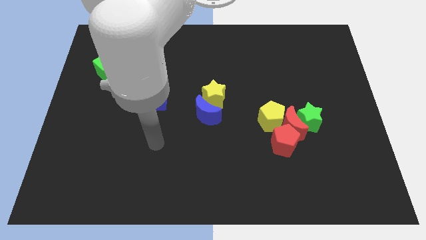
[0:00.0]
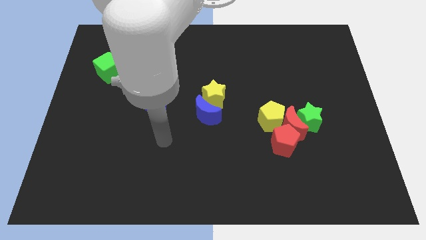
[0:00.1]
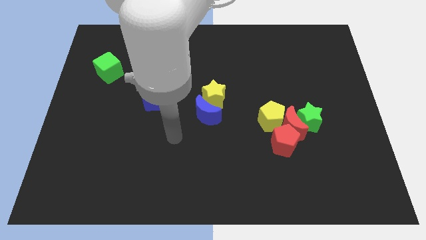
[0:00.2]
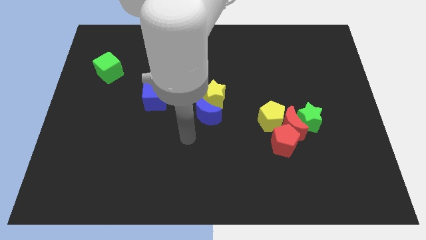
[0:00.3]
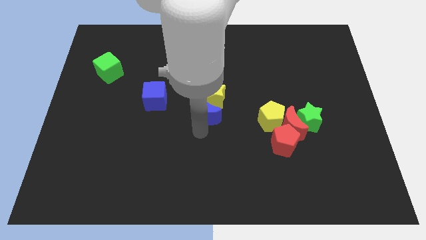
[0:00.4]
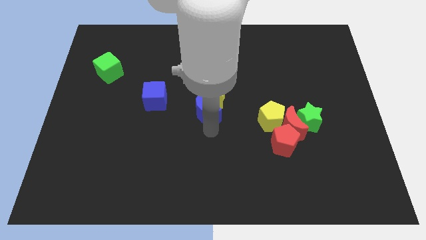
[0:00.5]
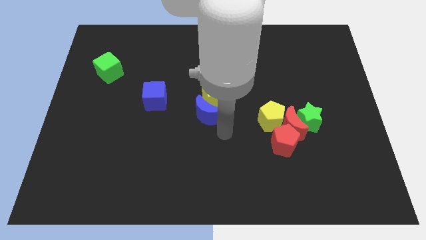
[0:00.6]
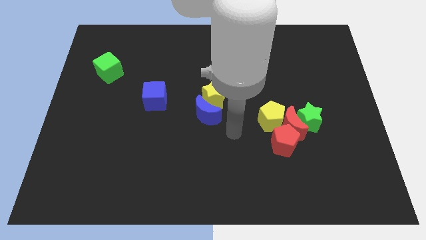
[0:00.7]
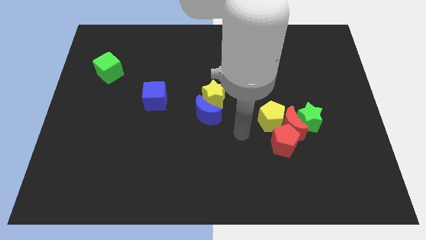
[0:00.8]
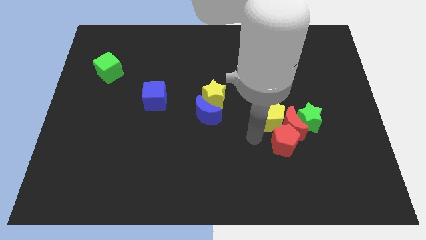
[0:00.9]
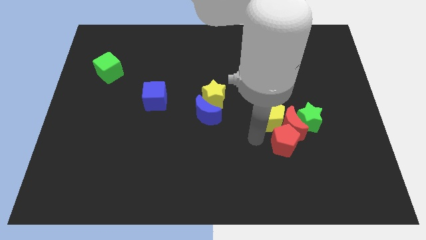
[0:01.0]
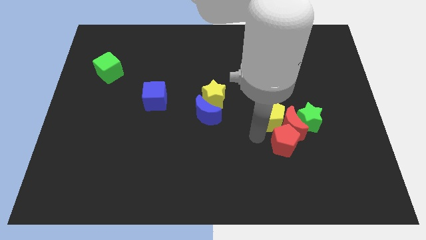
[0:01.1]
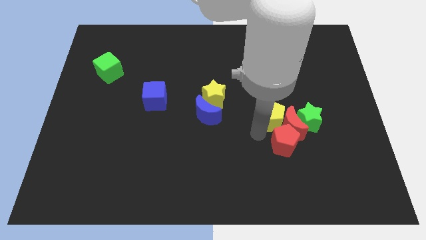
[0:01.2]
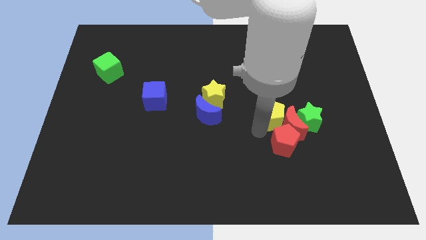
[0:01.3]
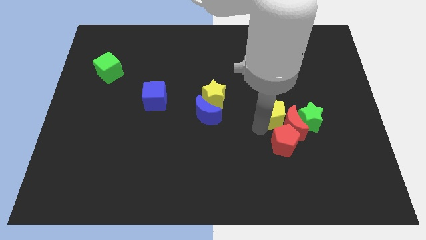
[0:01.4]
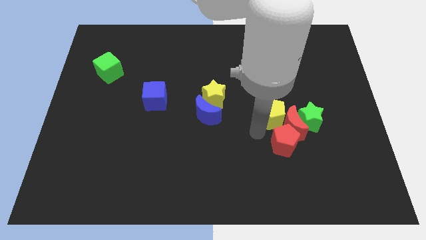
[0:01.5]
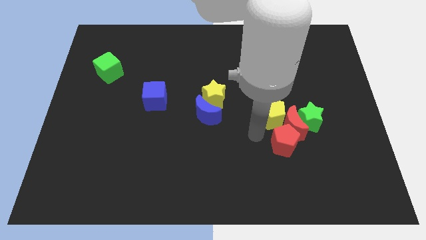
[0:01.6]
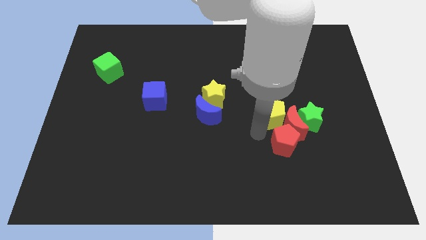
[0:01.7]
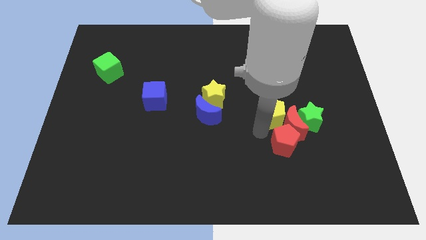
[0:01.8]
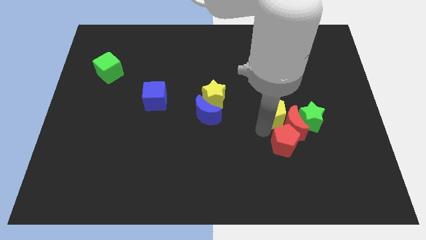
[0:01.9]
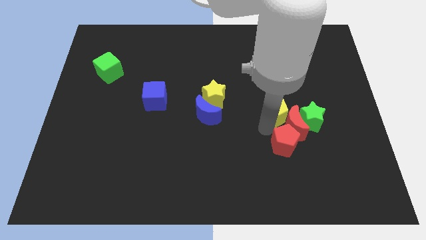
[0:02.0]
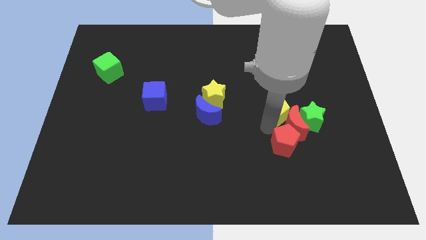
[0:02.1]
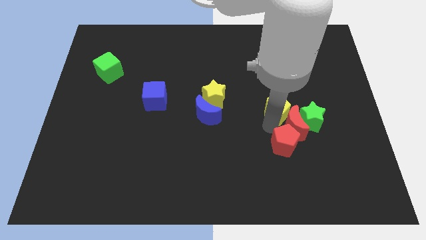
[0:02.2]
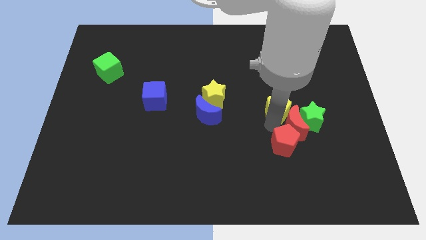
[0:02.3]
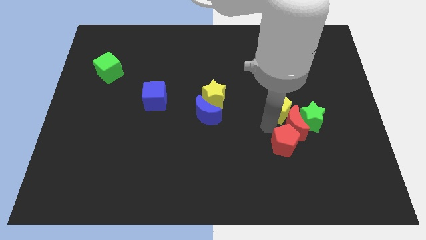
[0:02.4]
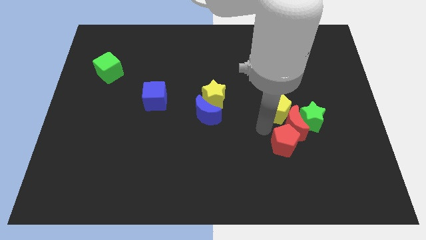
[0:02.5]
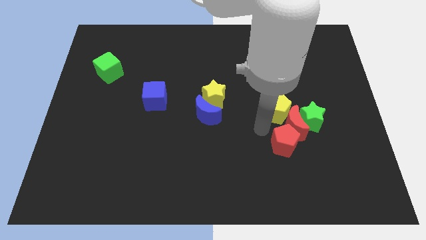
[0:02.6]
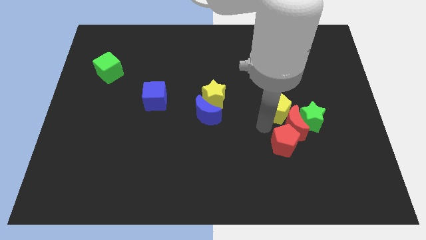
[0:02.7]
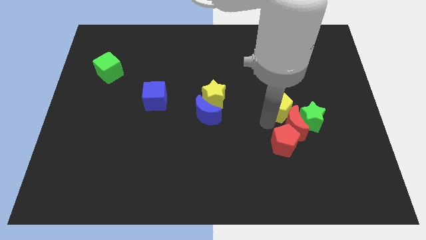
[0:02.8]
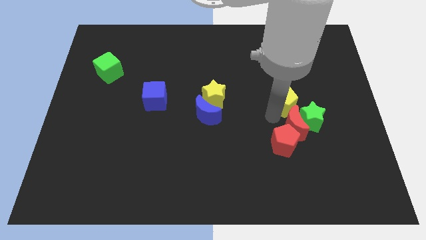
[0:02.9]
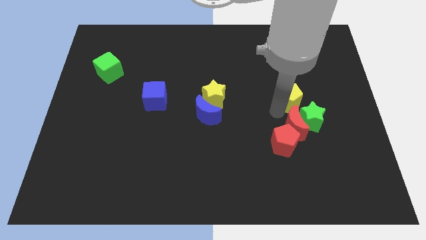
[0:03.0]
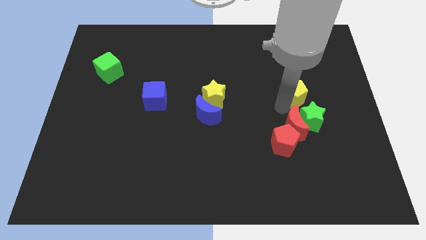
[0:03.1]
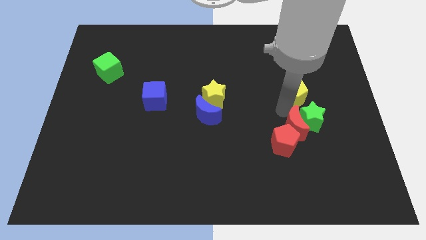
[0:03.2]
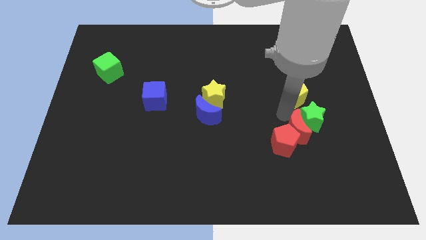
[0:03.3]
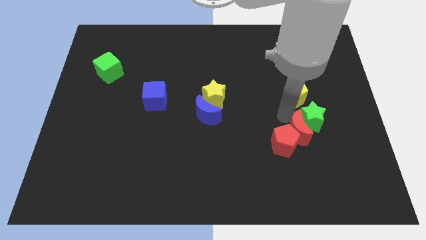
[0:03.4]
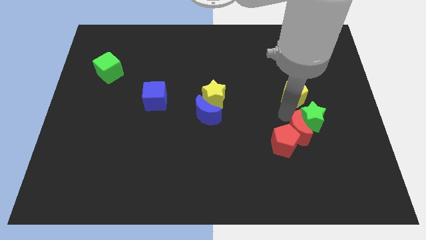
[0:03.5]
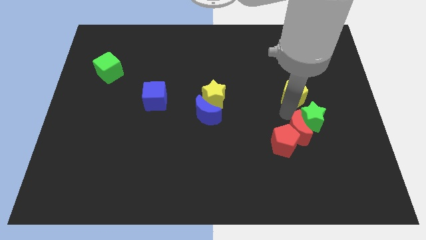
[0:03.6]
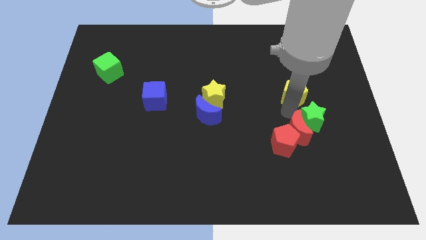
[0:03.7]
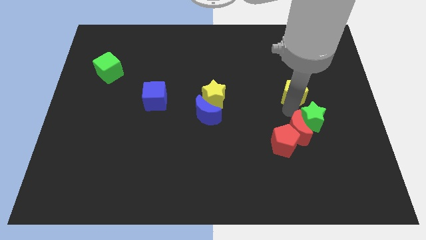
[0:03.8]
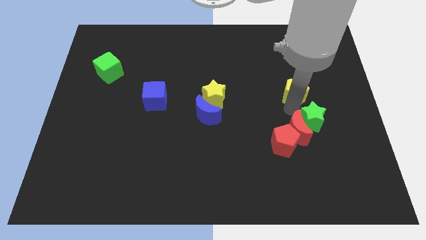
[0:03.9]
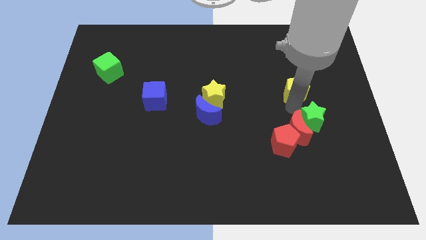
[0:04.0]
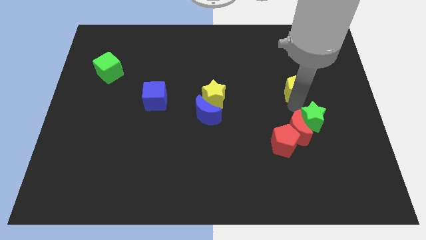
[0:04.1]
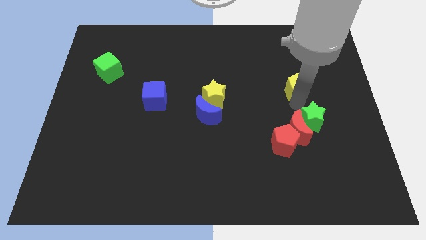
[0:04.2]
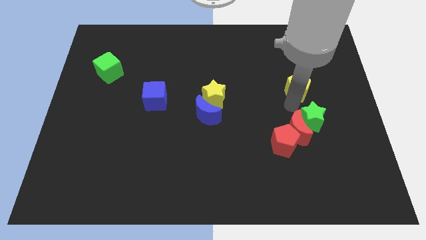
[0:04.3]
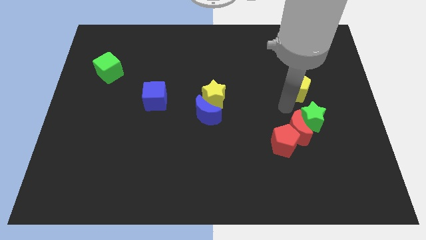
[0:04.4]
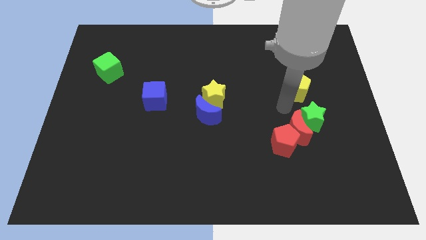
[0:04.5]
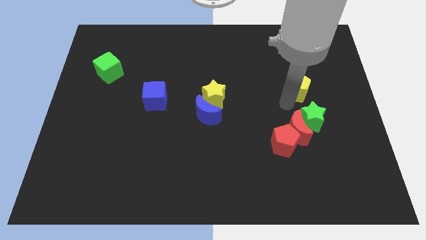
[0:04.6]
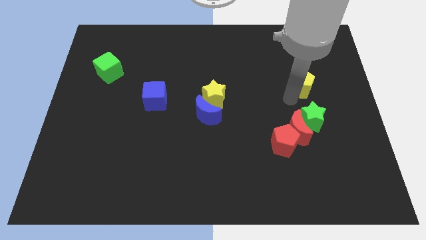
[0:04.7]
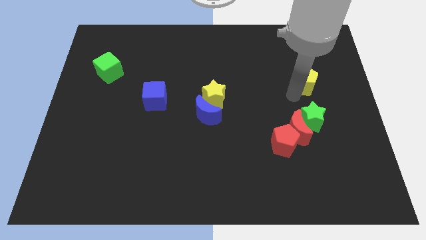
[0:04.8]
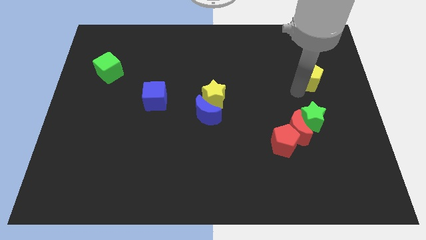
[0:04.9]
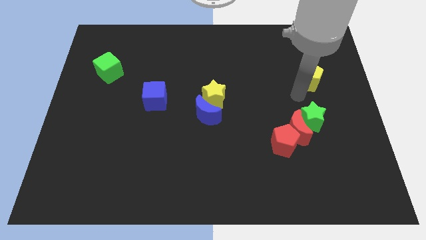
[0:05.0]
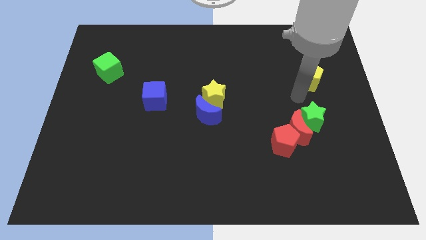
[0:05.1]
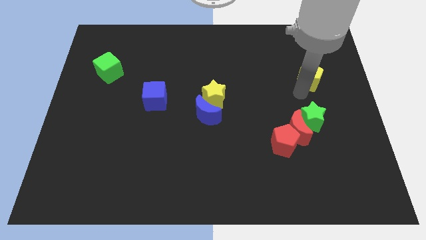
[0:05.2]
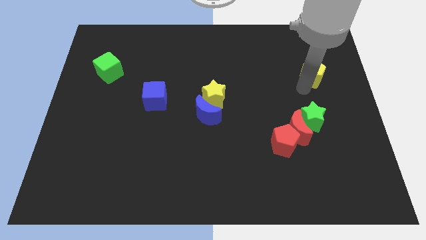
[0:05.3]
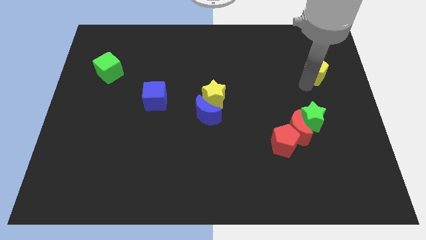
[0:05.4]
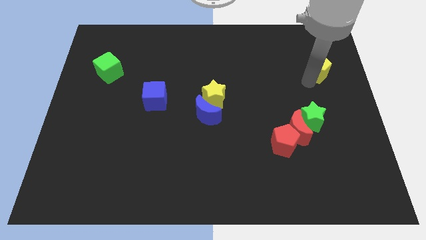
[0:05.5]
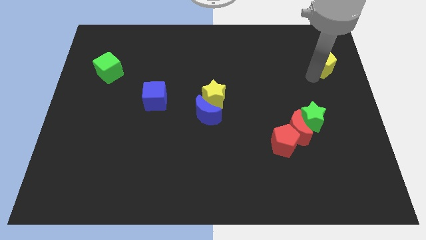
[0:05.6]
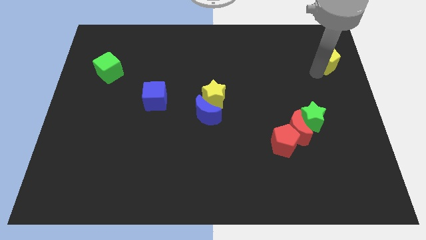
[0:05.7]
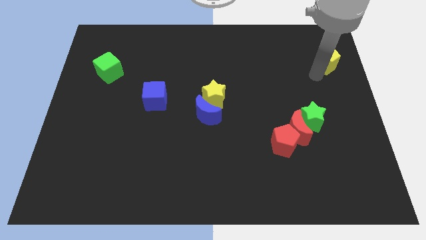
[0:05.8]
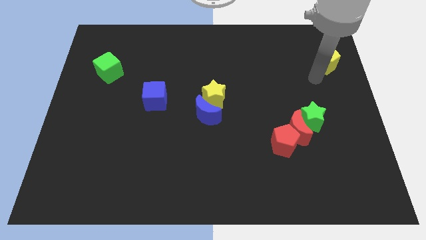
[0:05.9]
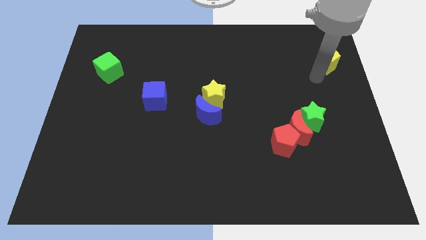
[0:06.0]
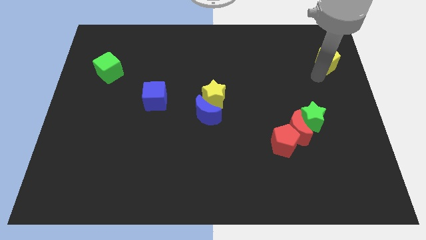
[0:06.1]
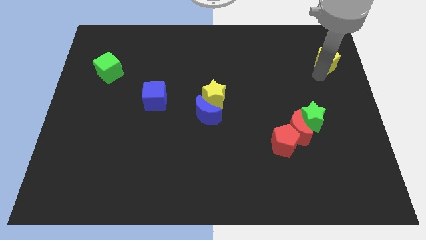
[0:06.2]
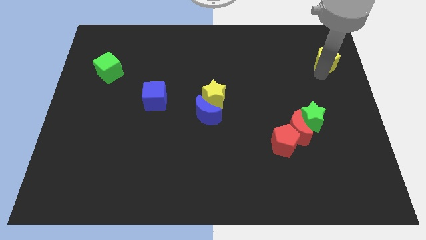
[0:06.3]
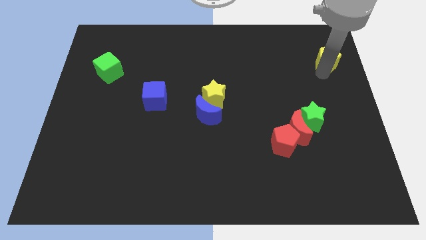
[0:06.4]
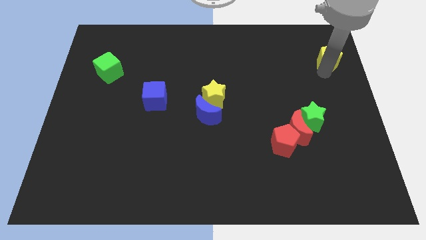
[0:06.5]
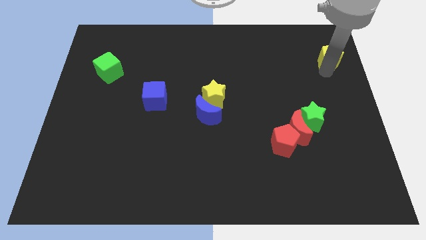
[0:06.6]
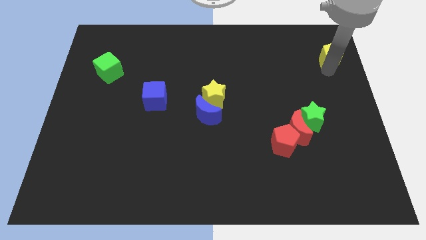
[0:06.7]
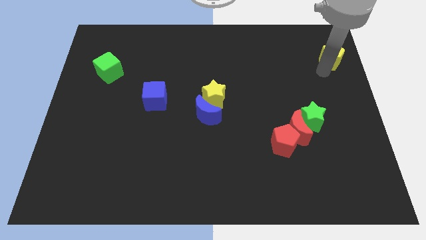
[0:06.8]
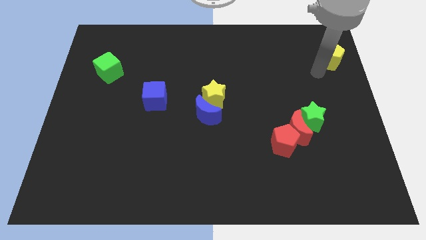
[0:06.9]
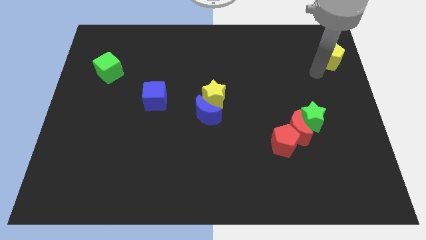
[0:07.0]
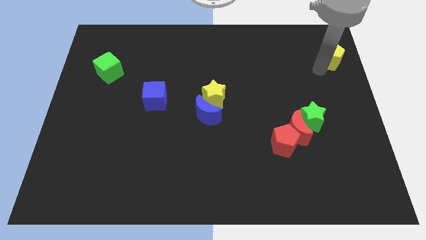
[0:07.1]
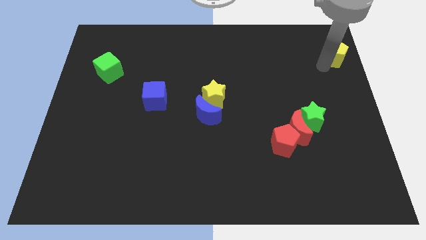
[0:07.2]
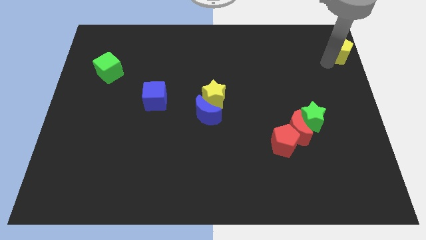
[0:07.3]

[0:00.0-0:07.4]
push the yellow pentagon to the upper right corner
